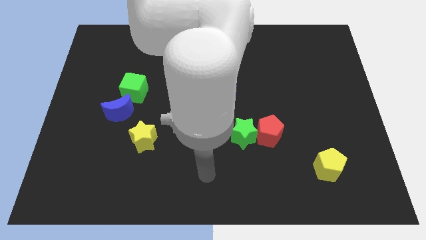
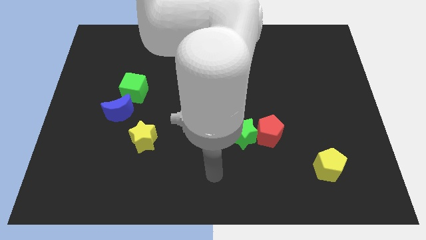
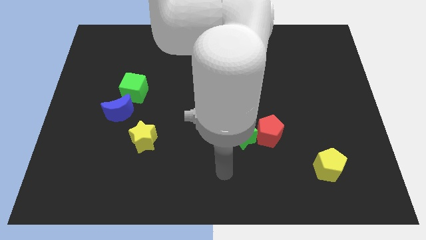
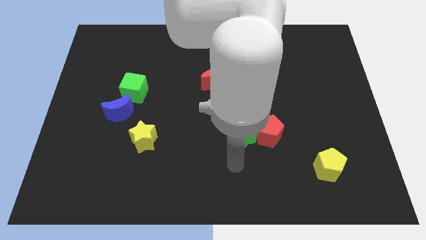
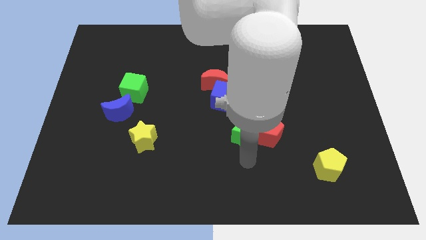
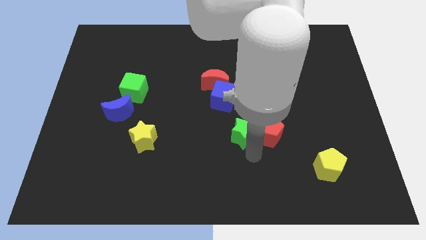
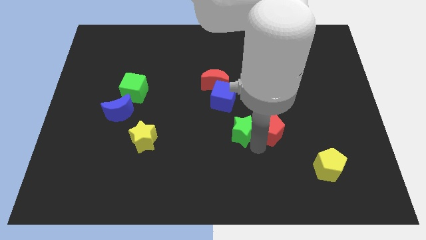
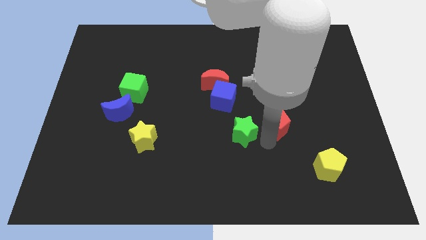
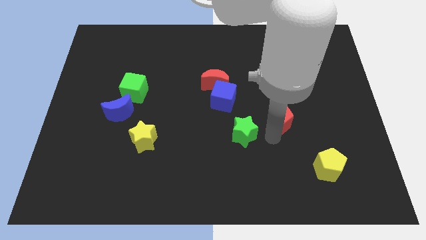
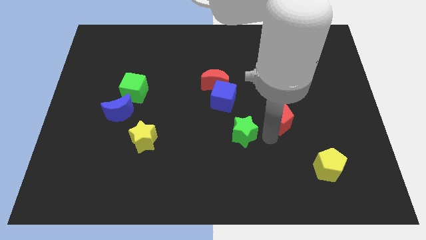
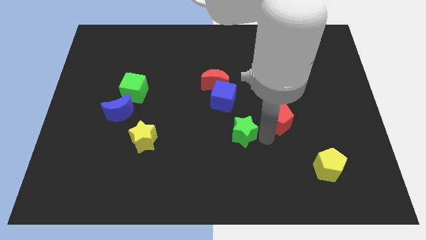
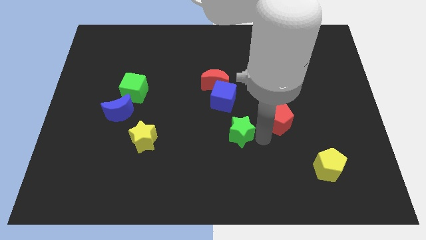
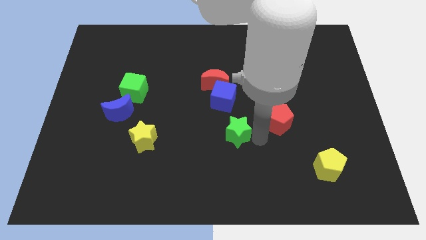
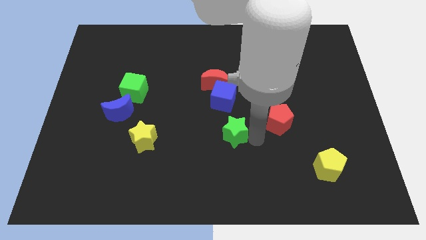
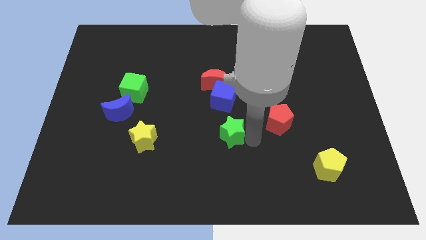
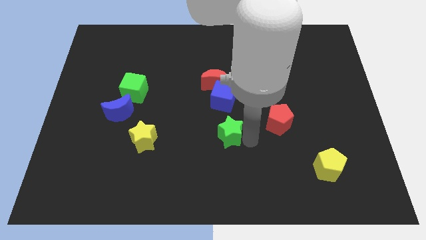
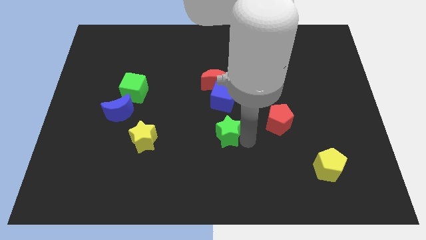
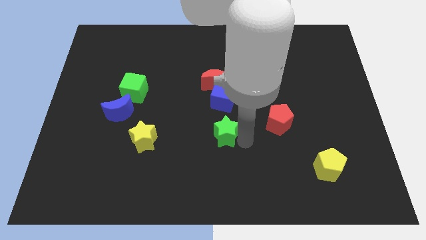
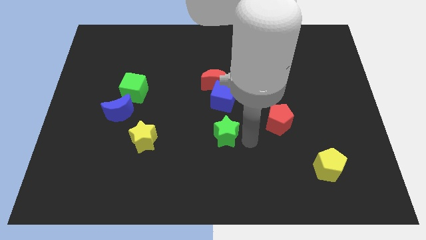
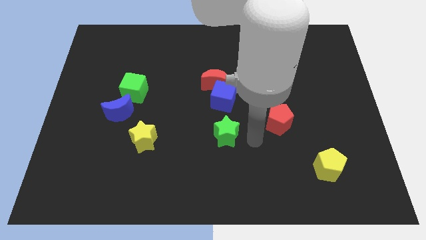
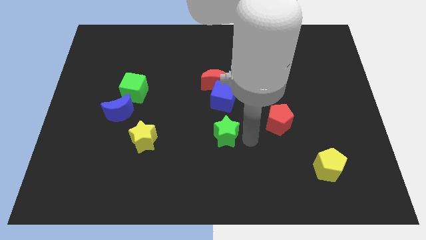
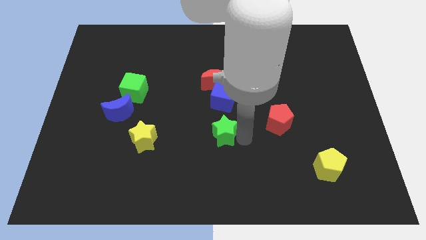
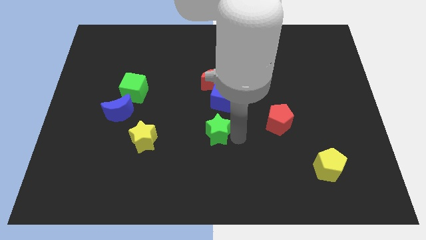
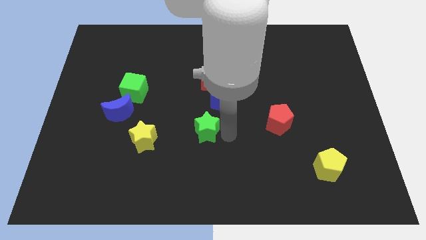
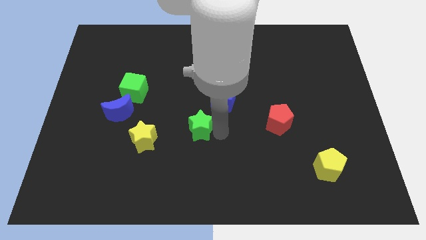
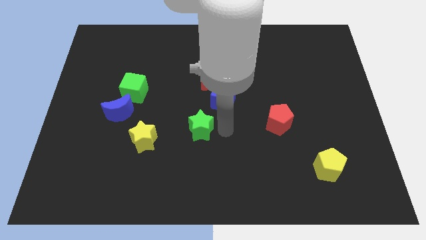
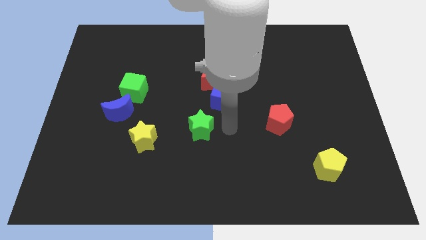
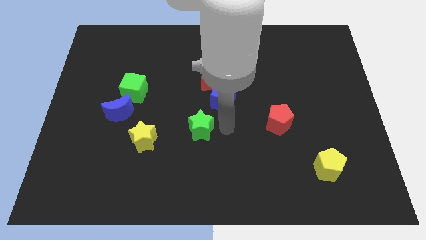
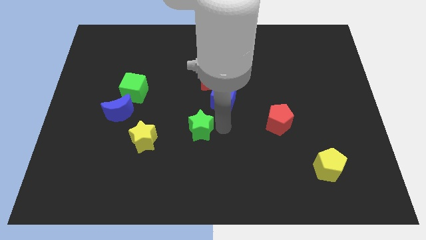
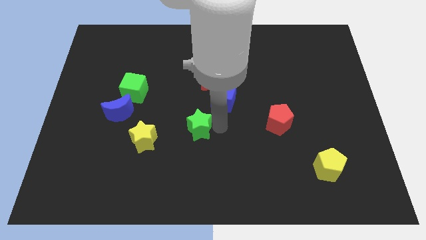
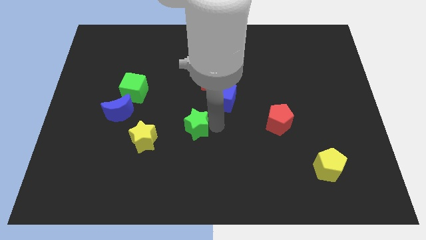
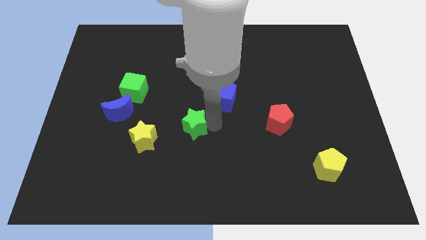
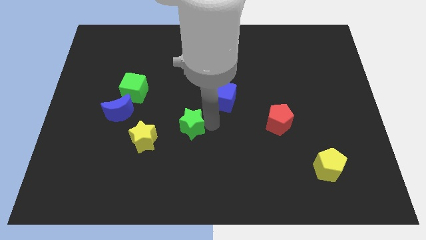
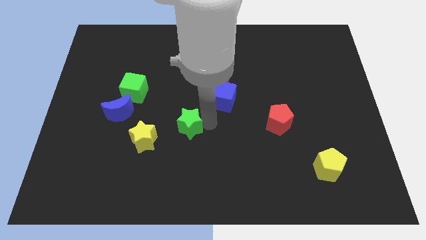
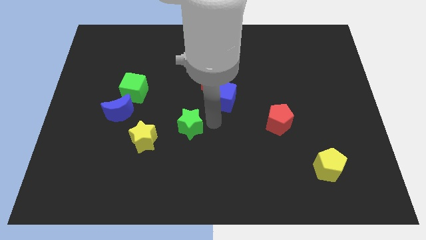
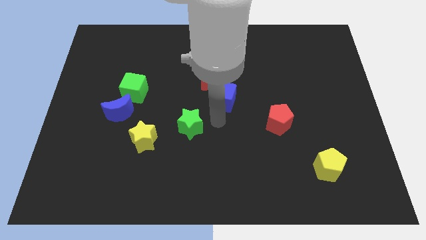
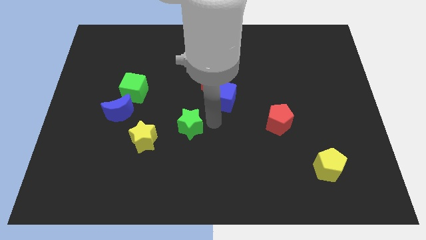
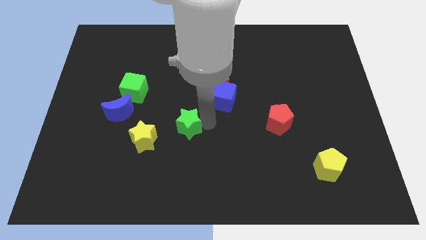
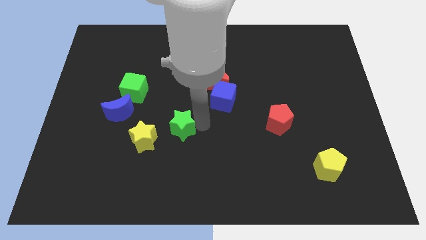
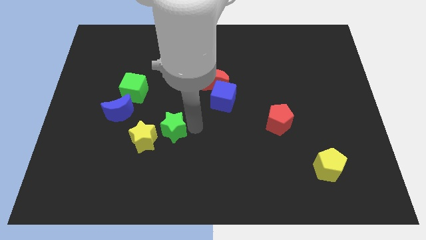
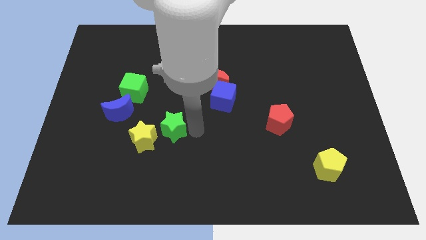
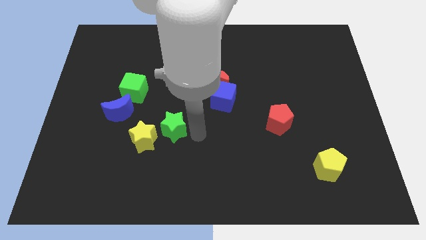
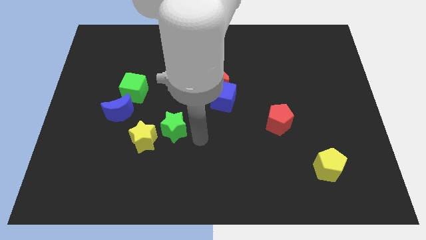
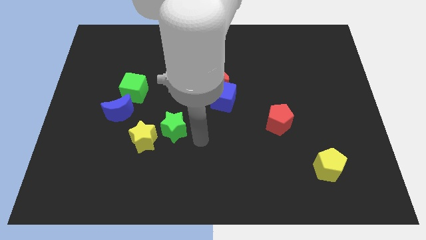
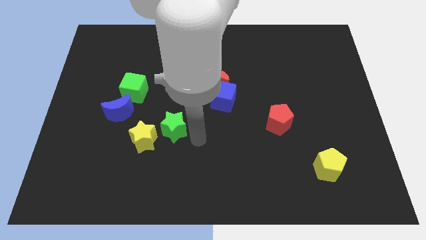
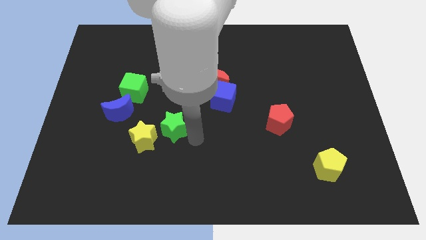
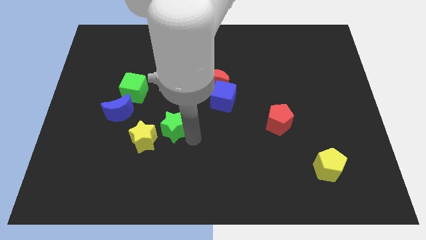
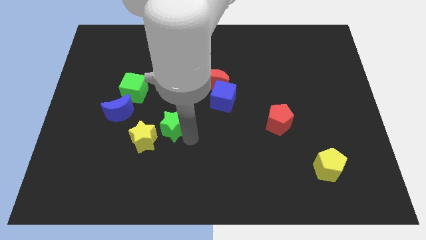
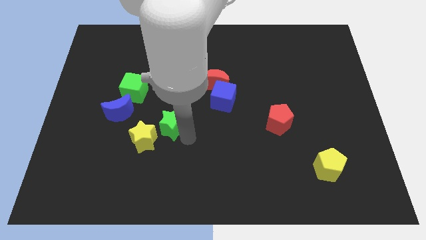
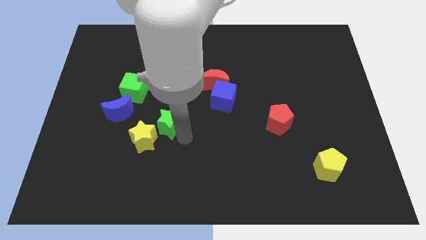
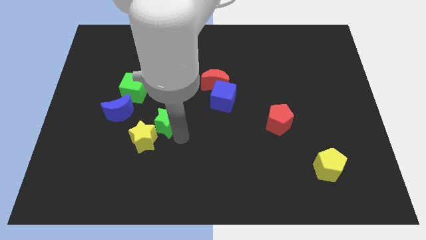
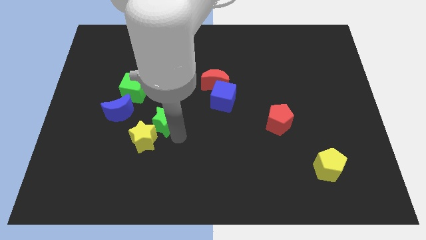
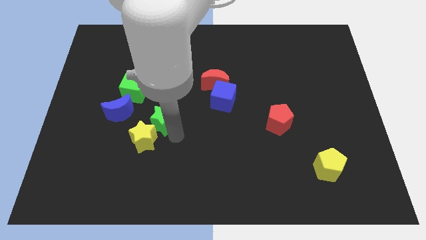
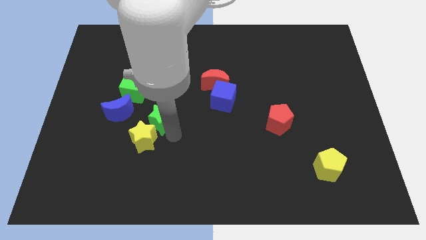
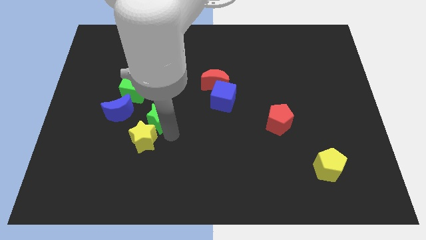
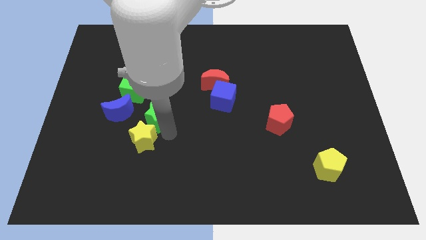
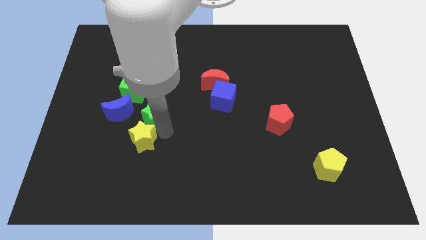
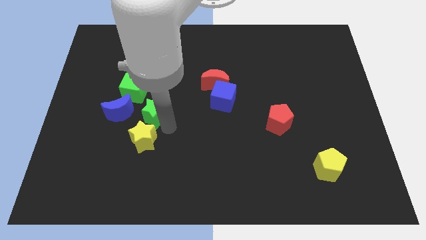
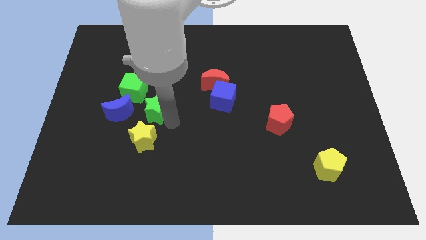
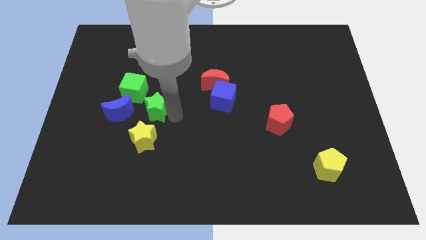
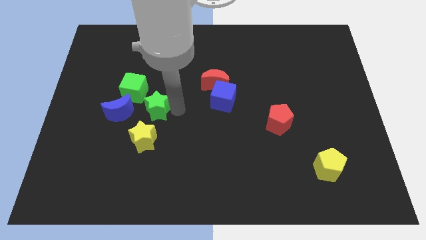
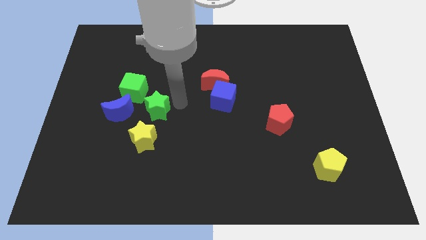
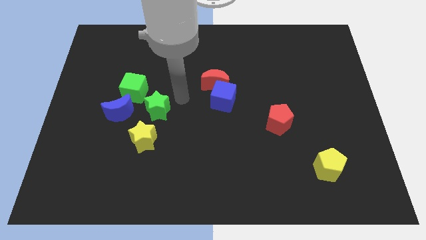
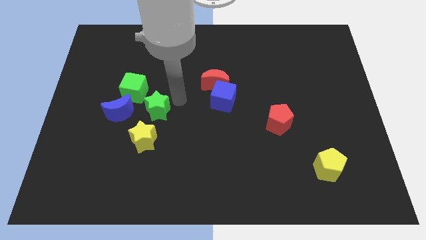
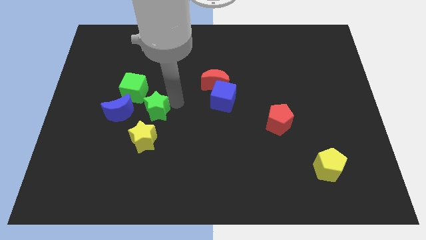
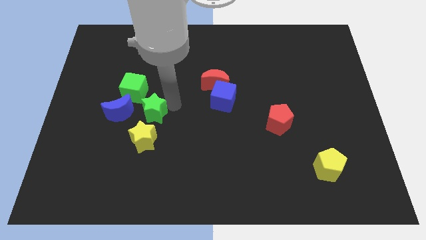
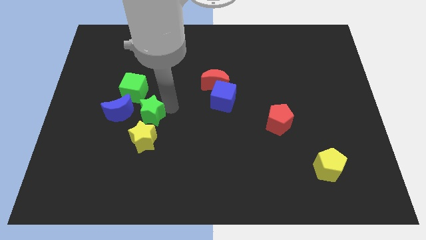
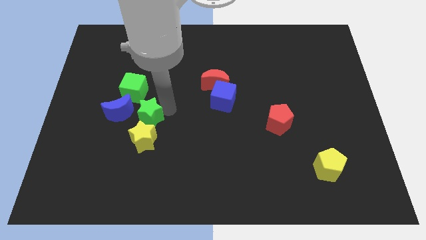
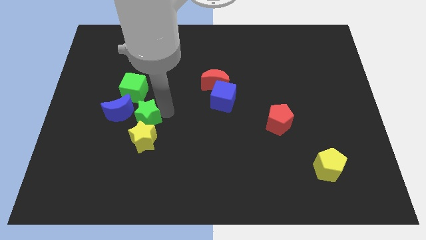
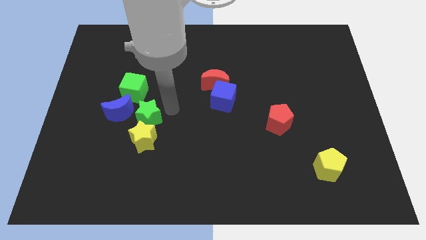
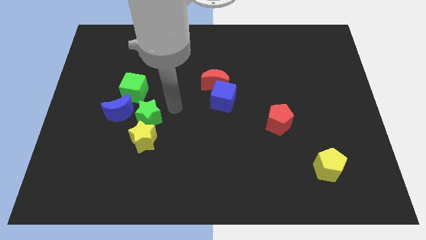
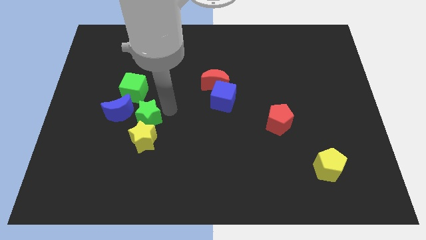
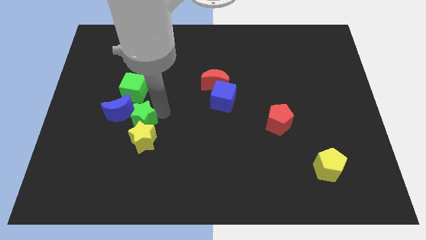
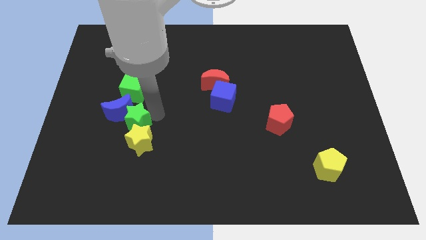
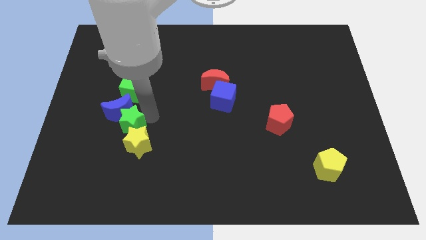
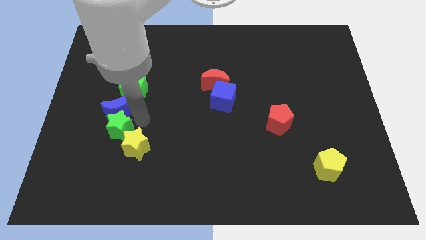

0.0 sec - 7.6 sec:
move the green star to the left of the yellow star

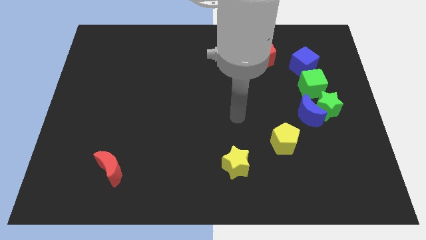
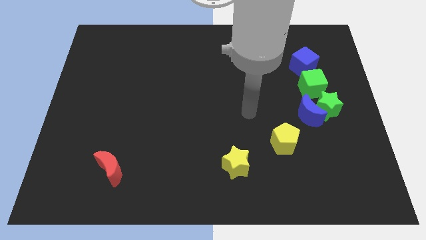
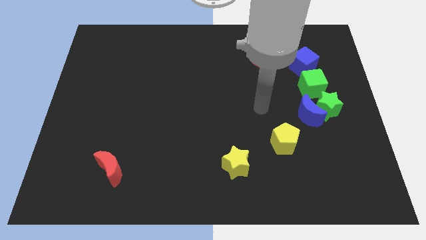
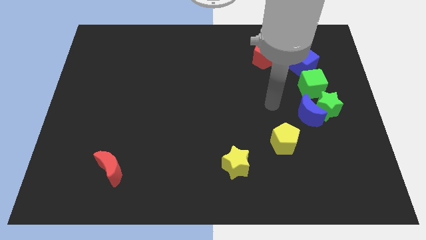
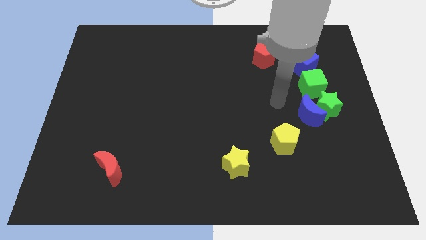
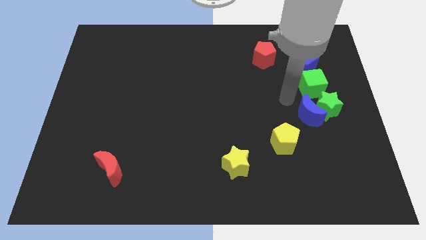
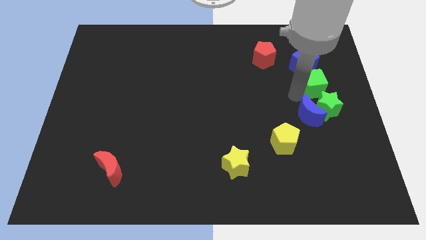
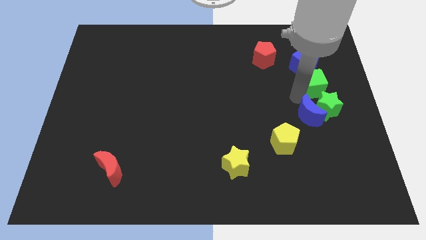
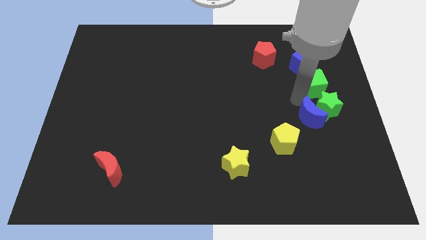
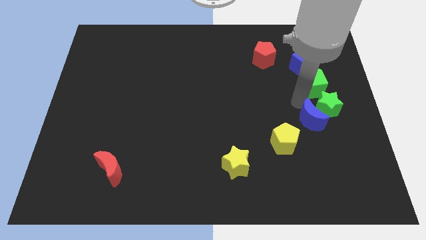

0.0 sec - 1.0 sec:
slide the blue moon to the bottom of the green star
